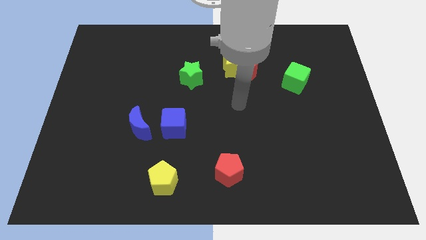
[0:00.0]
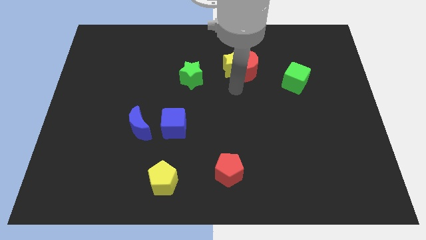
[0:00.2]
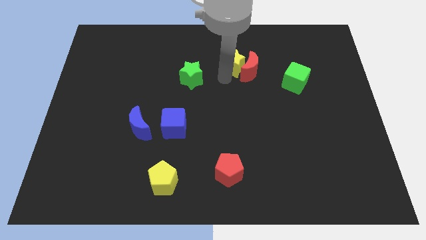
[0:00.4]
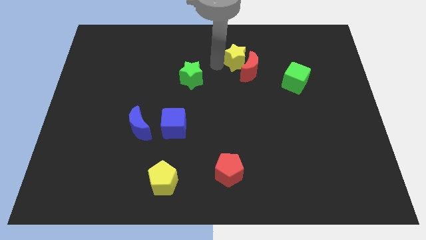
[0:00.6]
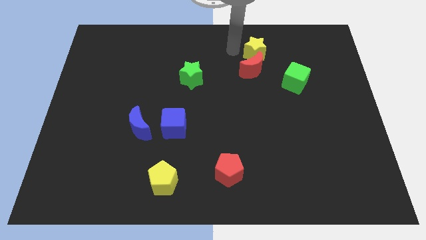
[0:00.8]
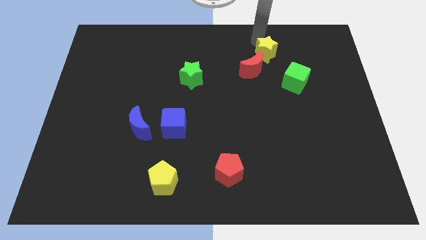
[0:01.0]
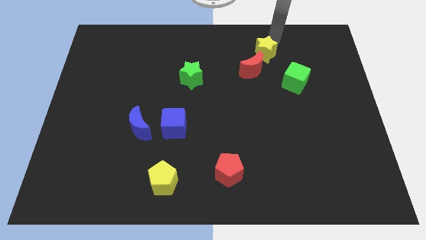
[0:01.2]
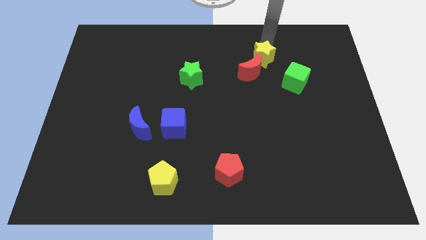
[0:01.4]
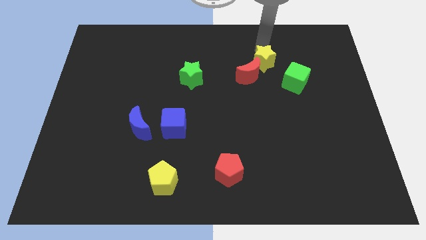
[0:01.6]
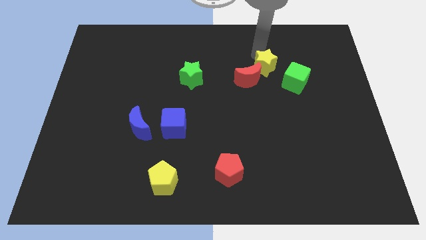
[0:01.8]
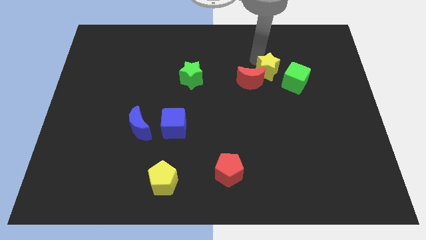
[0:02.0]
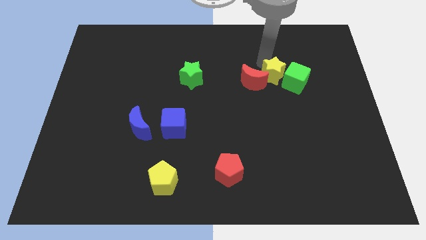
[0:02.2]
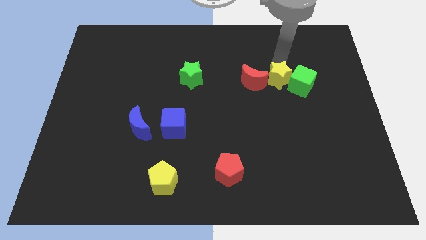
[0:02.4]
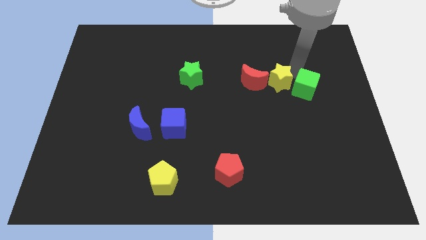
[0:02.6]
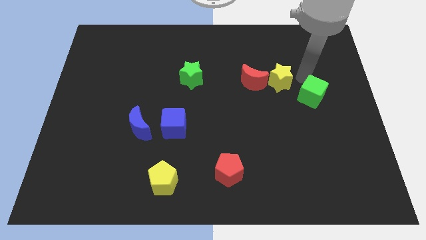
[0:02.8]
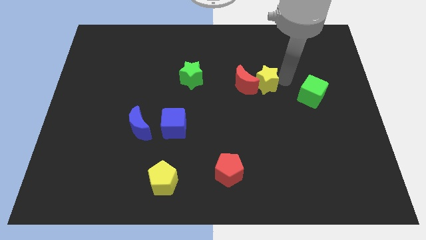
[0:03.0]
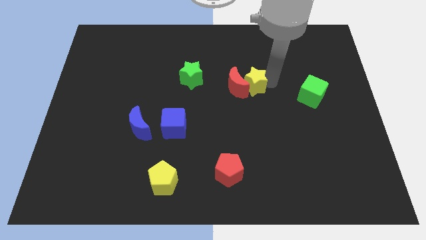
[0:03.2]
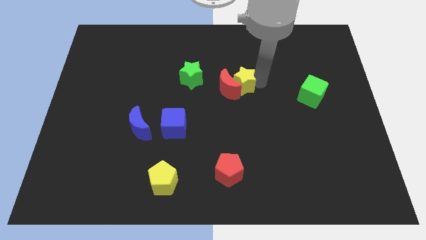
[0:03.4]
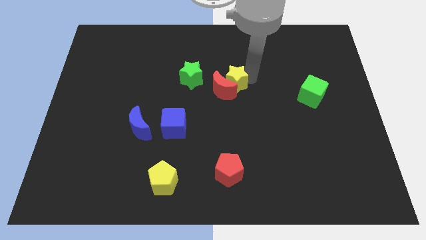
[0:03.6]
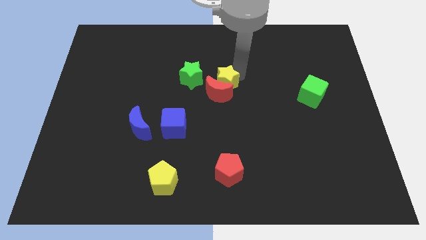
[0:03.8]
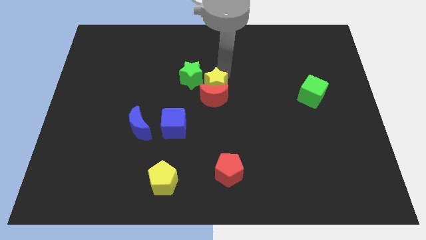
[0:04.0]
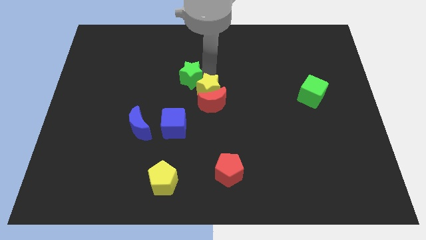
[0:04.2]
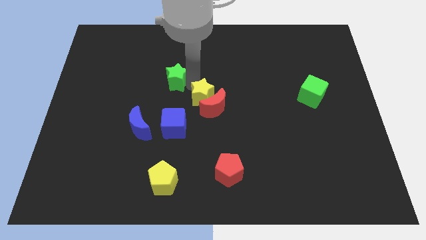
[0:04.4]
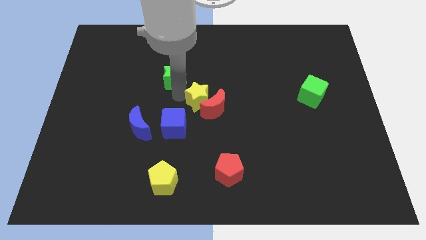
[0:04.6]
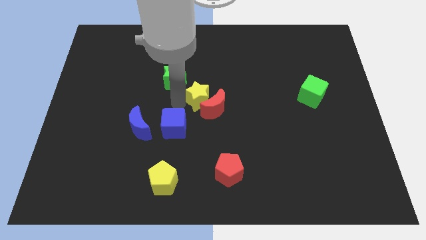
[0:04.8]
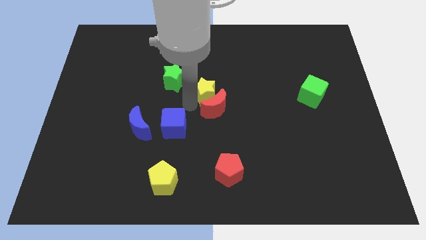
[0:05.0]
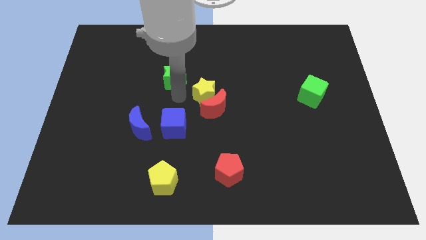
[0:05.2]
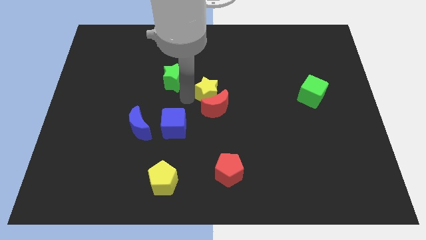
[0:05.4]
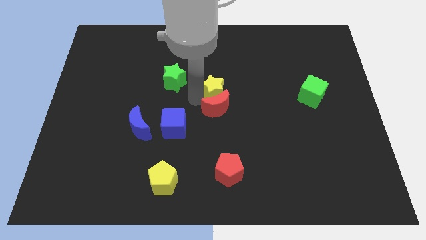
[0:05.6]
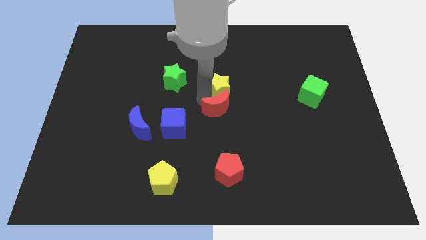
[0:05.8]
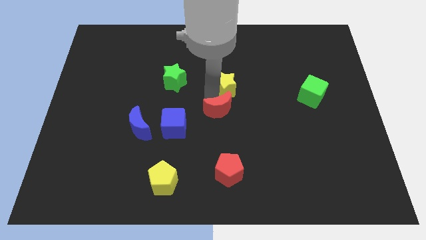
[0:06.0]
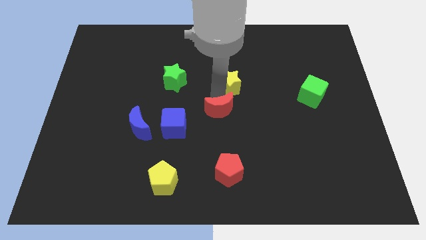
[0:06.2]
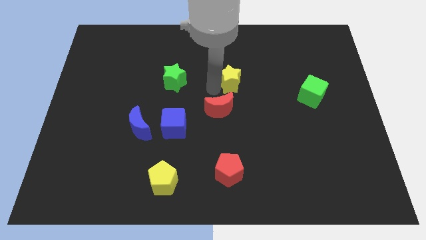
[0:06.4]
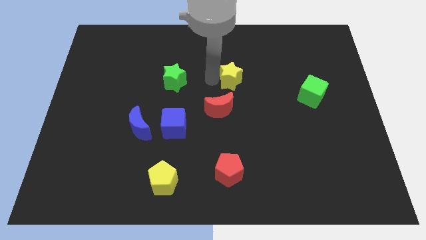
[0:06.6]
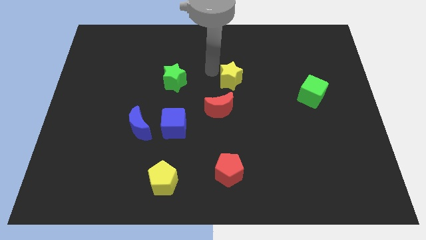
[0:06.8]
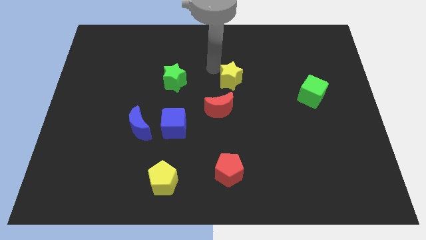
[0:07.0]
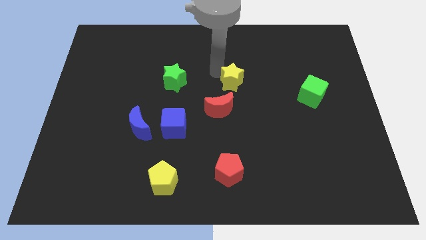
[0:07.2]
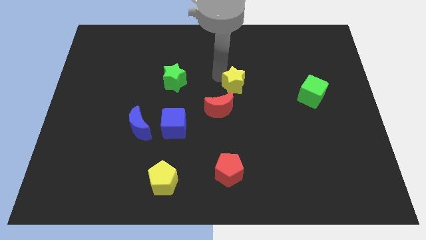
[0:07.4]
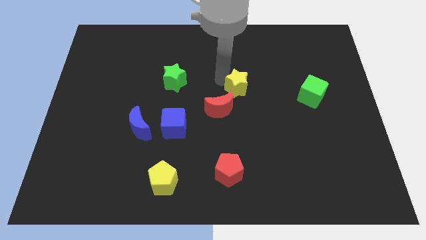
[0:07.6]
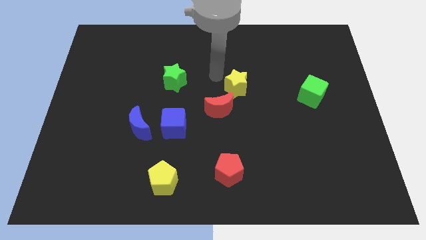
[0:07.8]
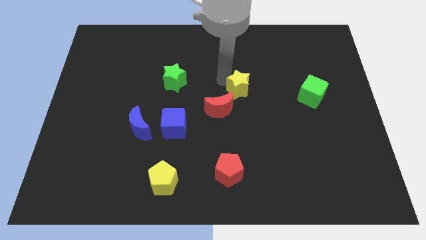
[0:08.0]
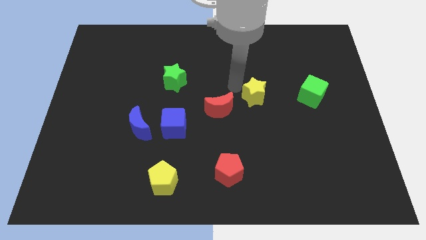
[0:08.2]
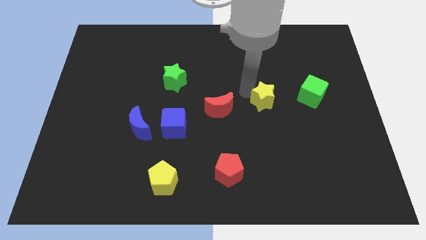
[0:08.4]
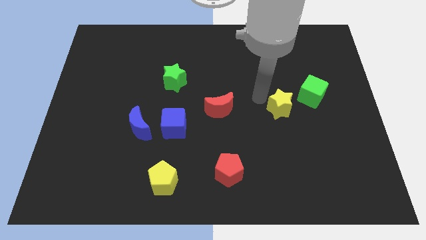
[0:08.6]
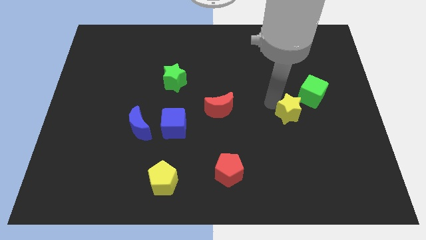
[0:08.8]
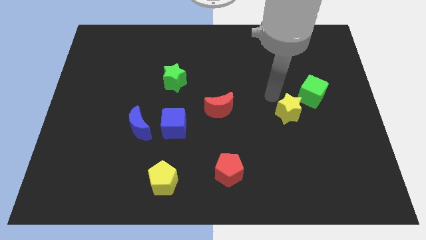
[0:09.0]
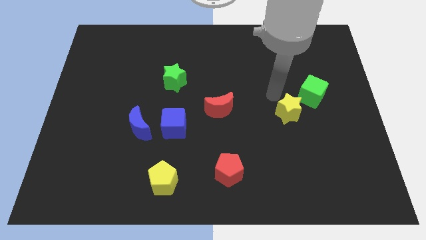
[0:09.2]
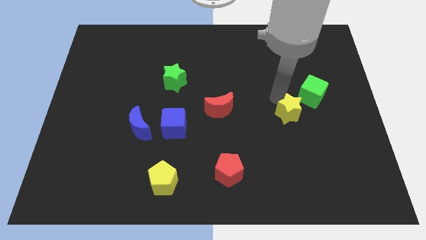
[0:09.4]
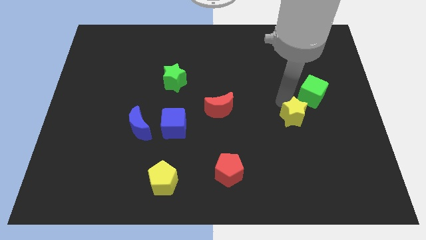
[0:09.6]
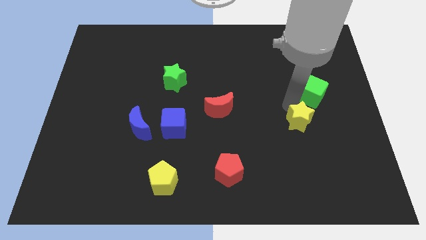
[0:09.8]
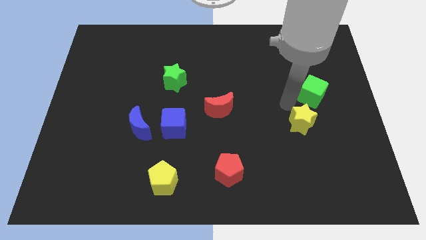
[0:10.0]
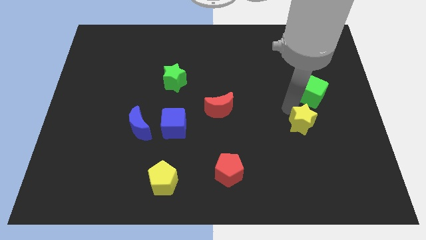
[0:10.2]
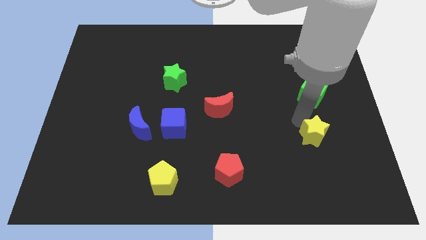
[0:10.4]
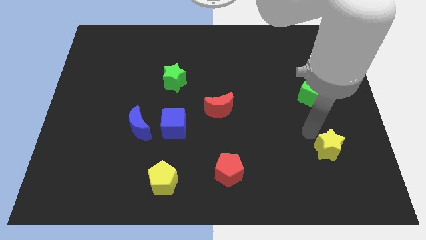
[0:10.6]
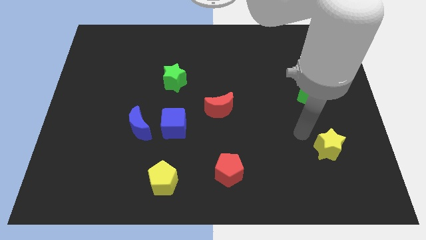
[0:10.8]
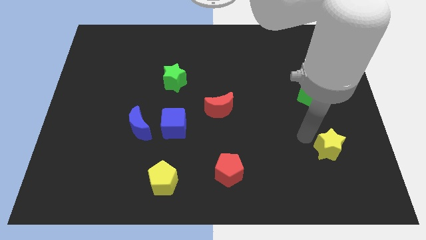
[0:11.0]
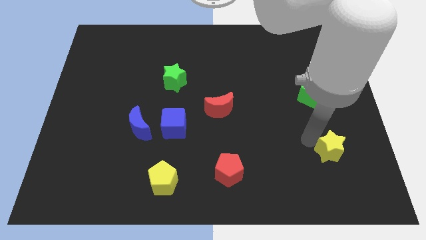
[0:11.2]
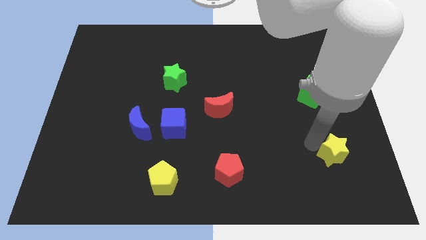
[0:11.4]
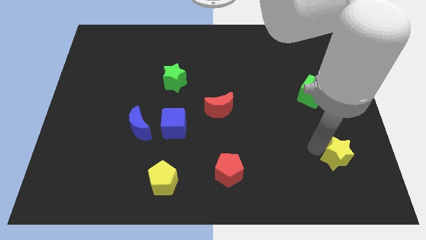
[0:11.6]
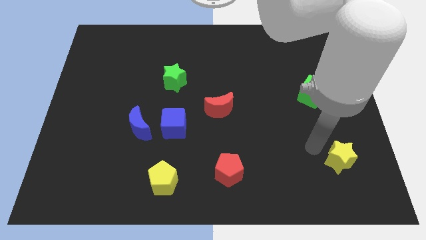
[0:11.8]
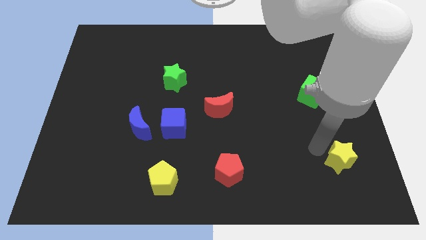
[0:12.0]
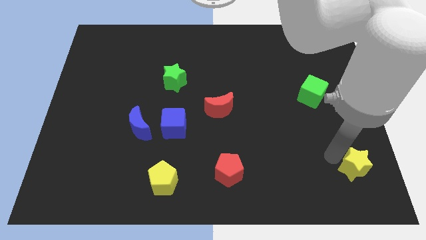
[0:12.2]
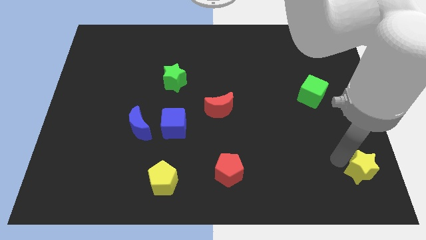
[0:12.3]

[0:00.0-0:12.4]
move the yellow star to the bottom right corner
